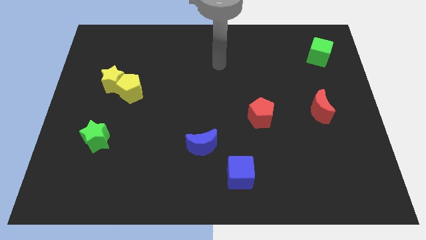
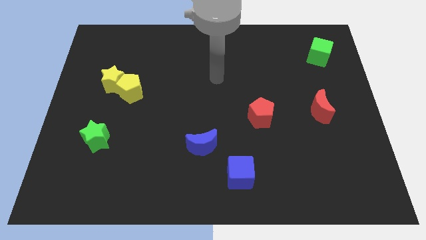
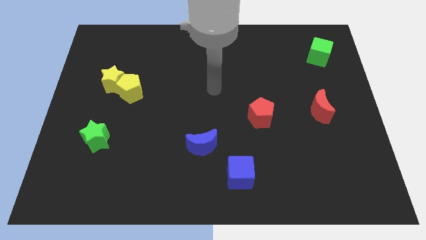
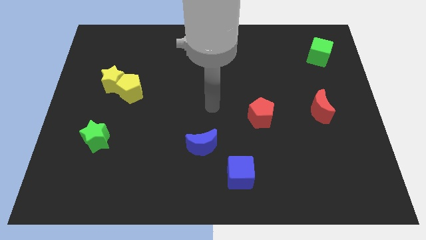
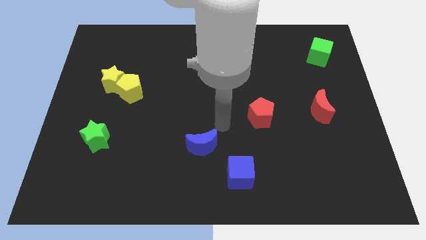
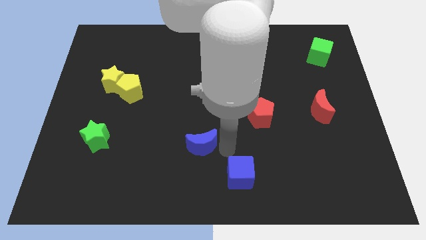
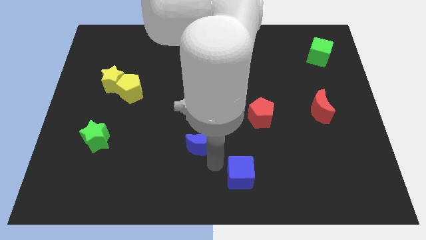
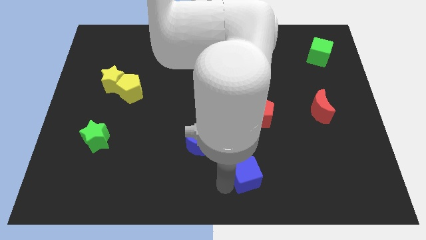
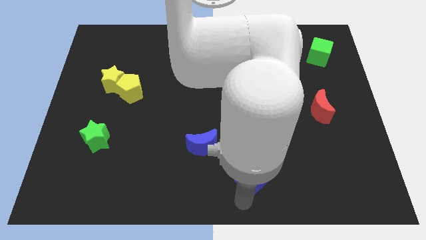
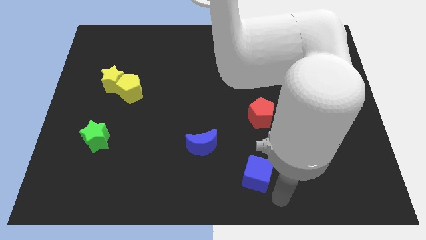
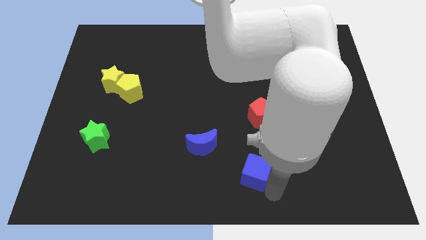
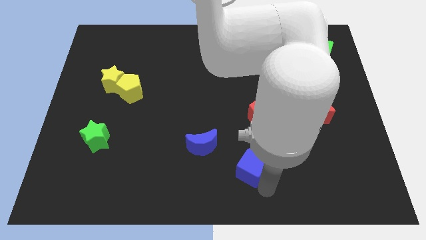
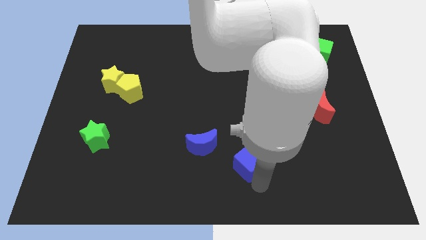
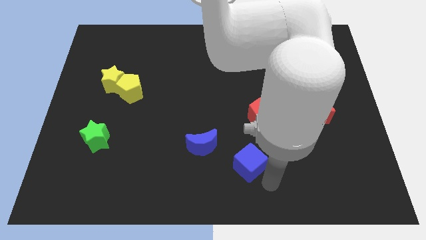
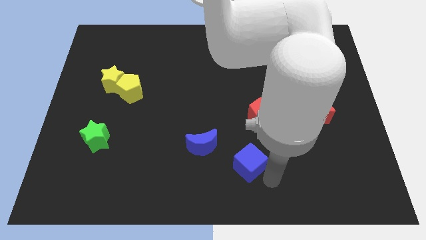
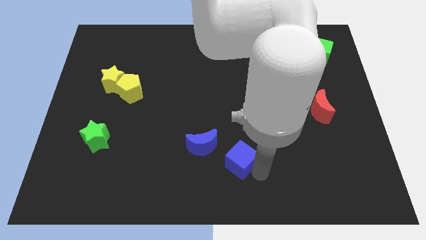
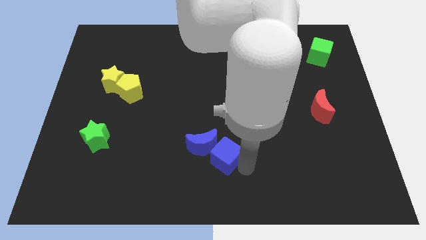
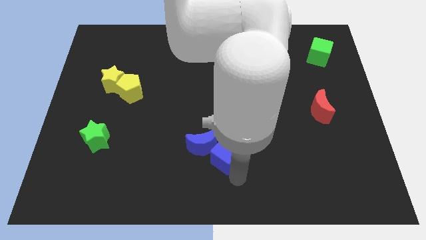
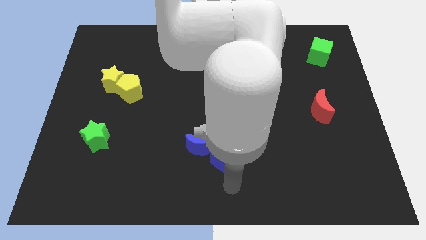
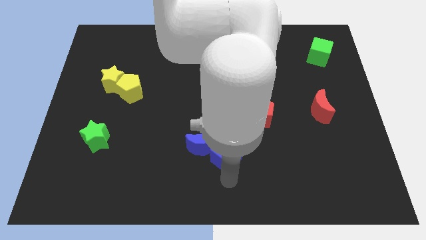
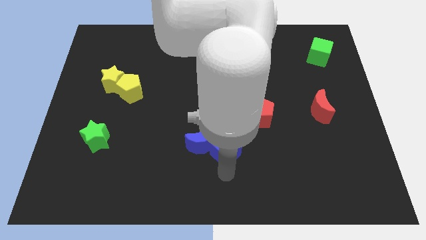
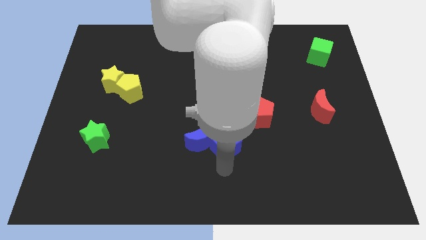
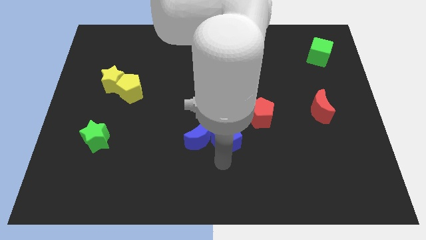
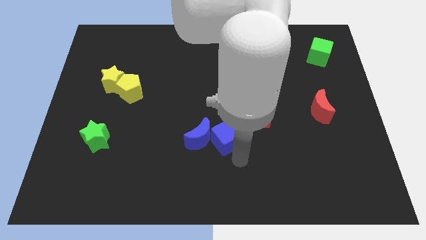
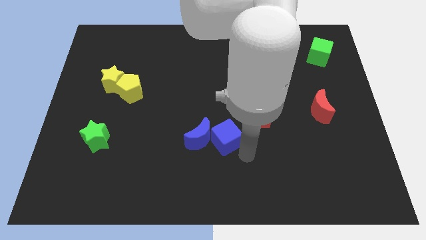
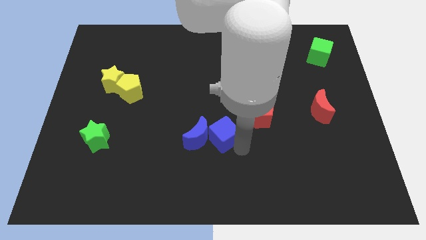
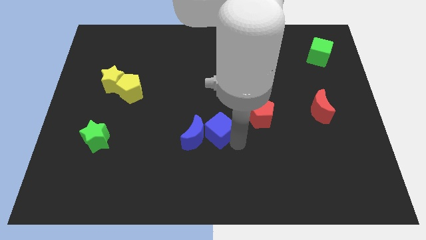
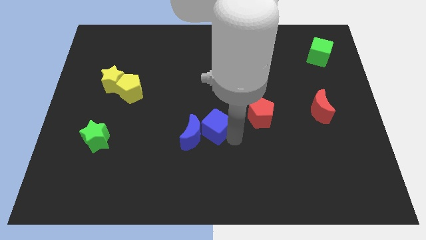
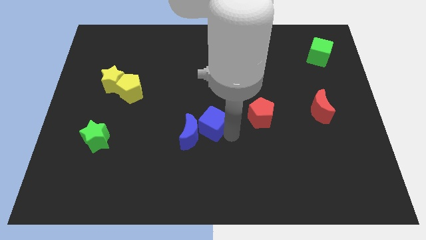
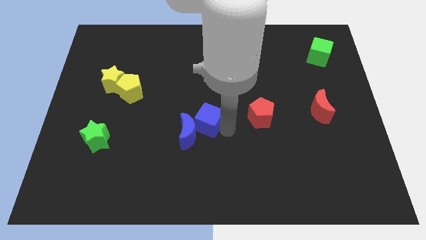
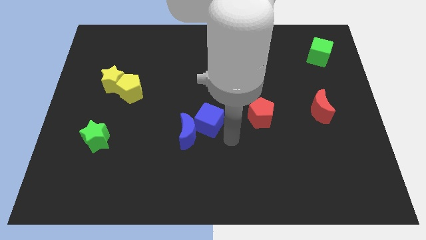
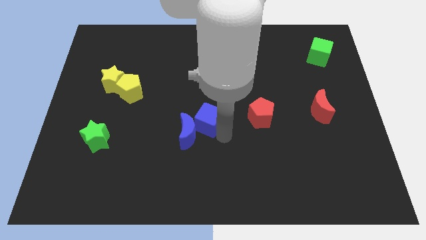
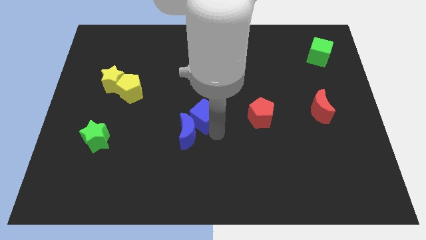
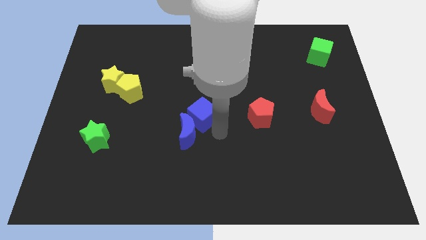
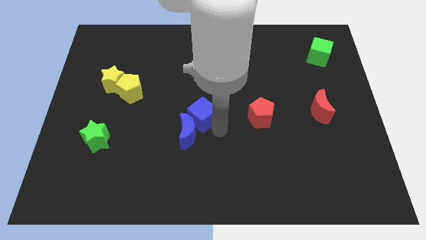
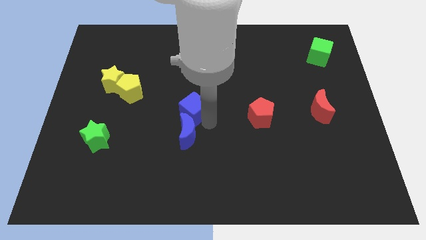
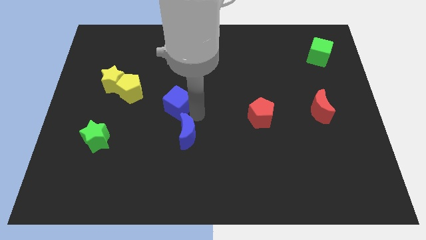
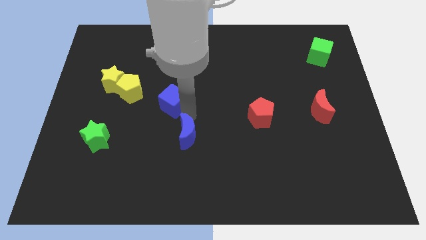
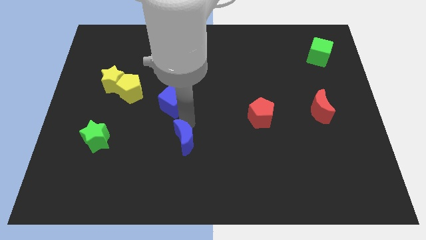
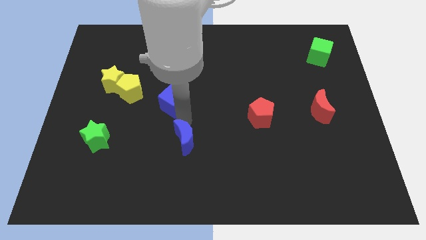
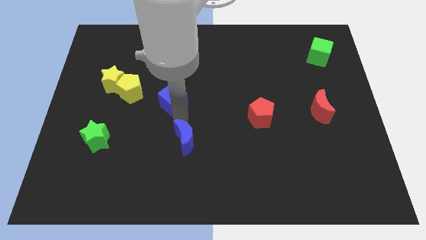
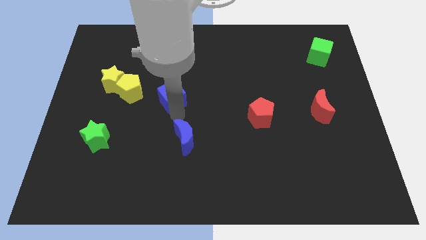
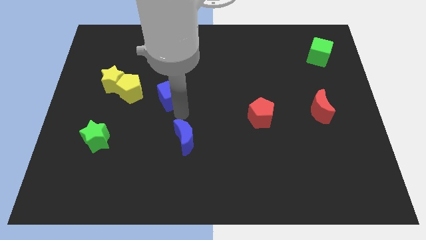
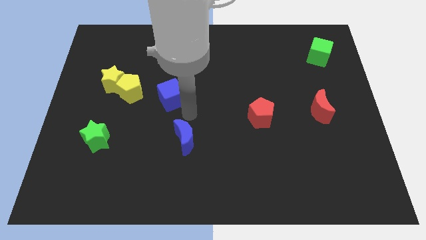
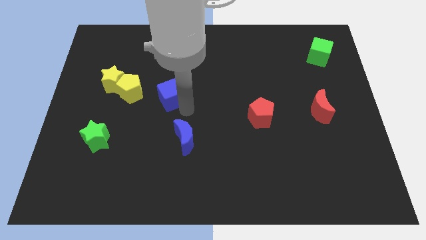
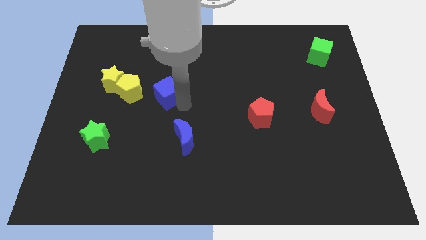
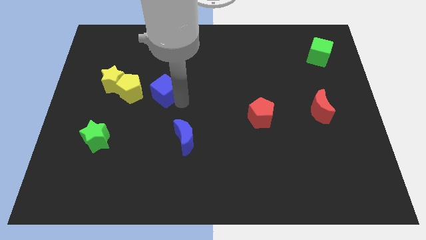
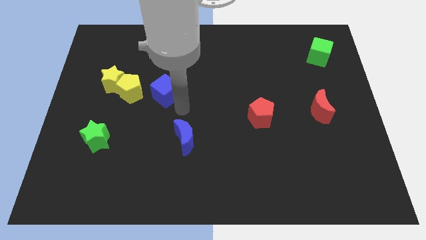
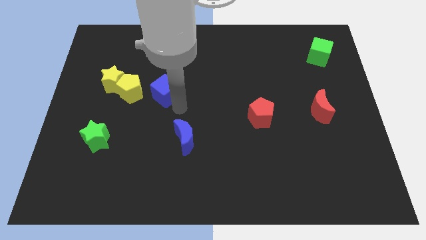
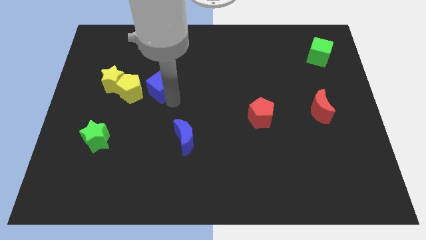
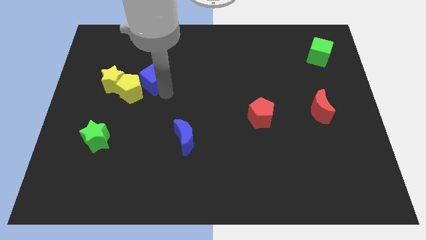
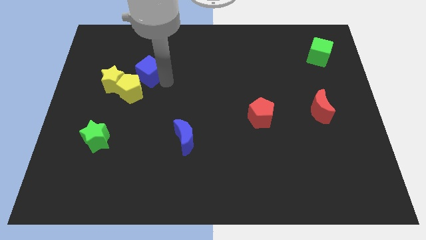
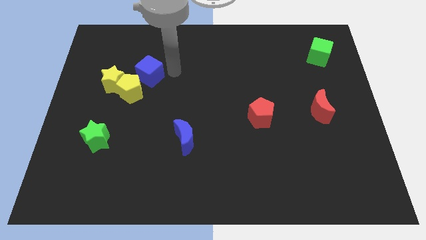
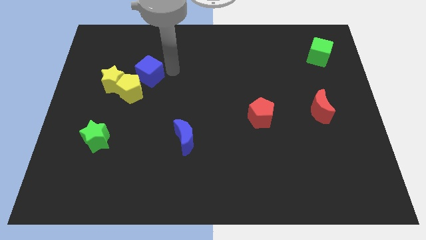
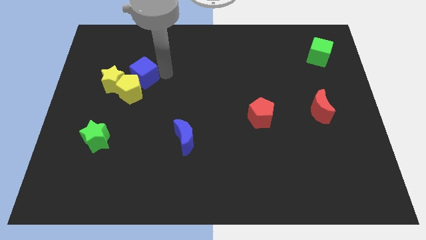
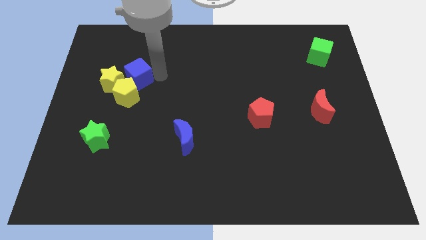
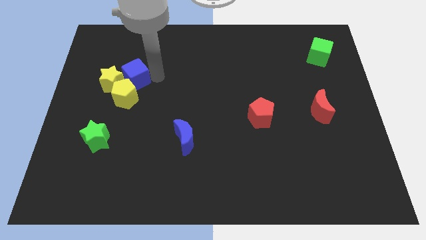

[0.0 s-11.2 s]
slide the blue cube next to the yellow star

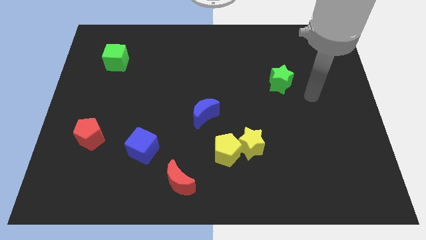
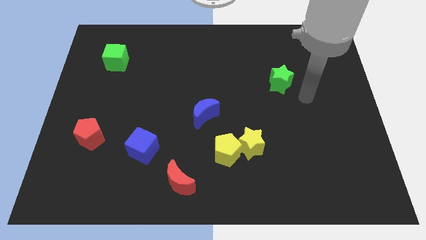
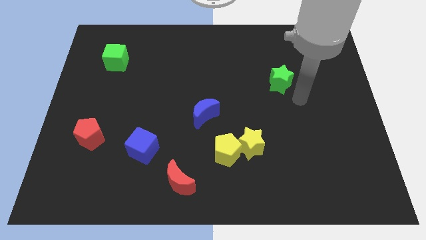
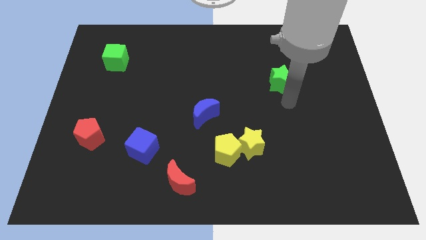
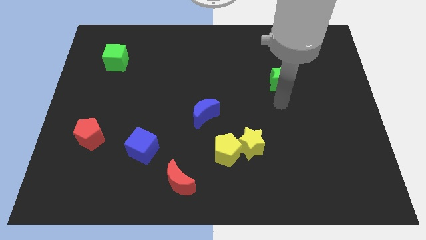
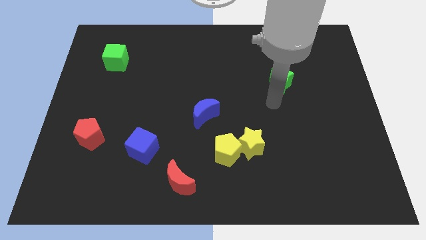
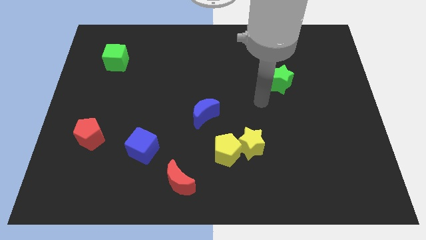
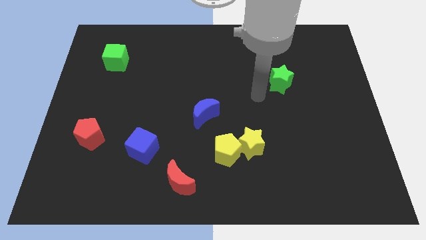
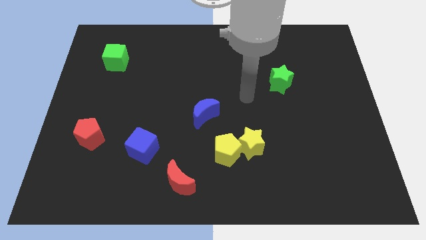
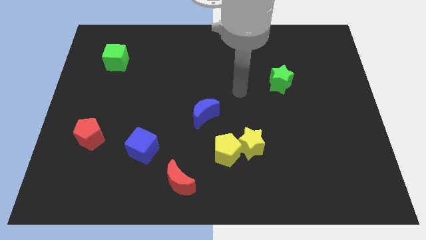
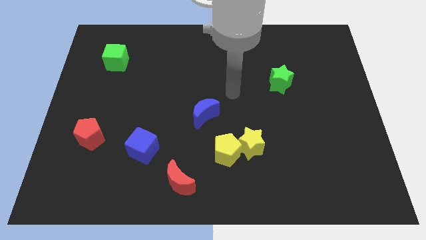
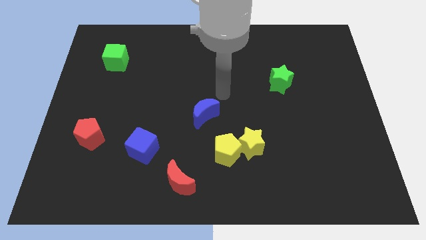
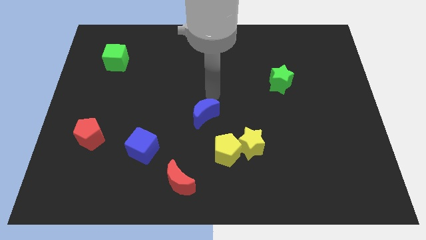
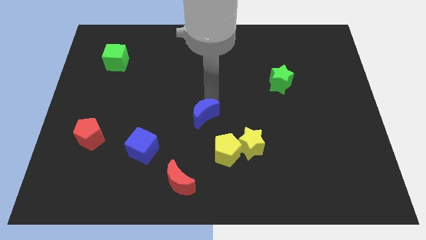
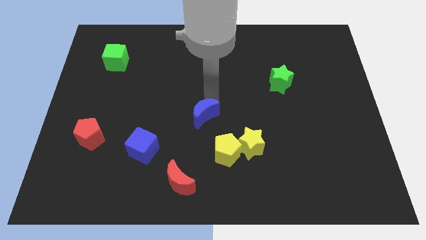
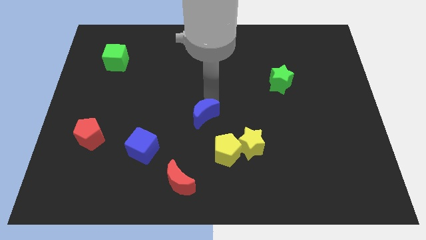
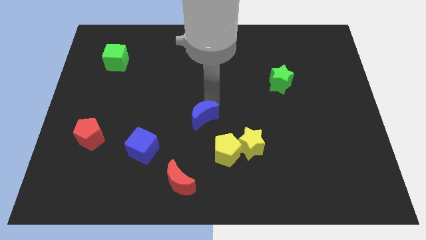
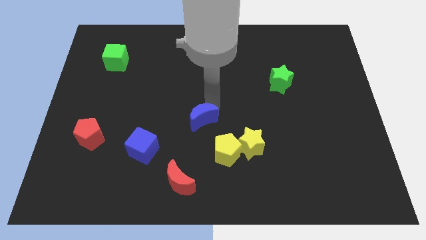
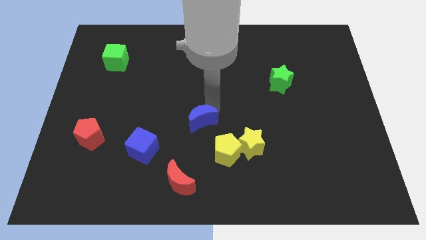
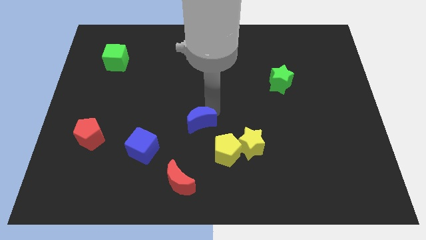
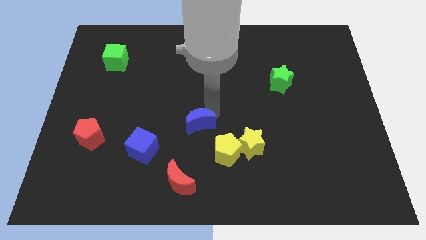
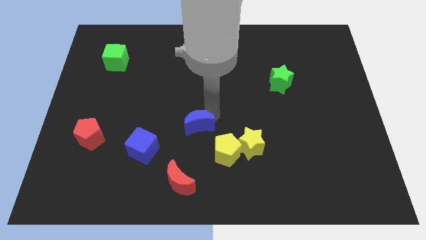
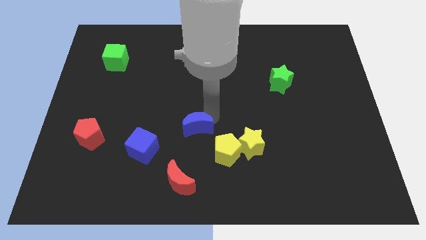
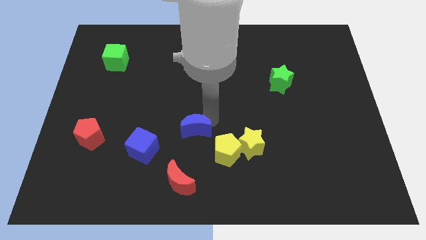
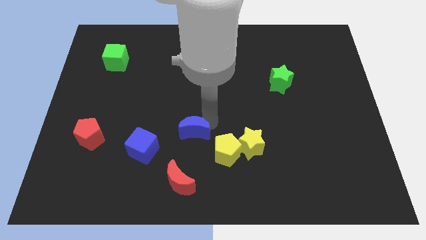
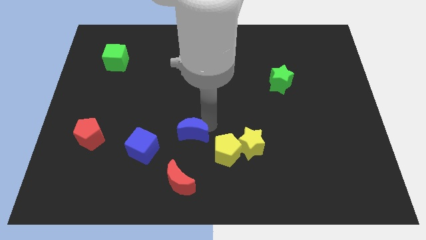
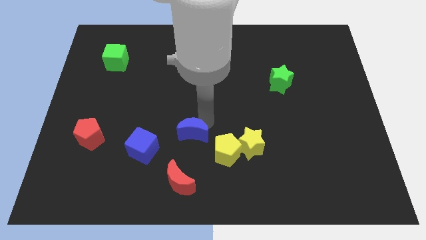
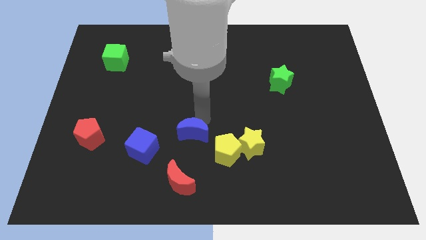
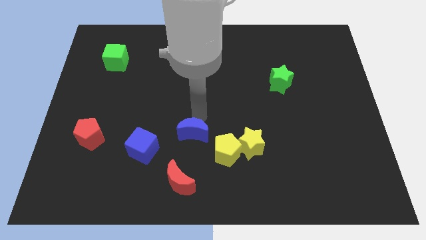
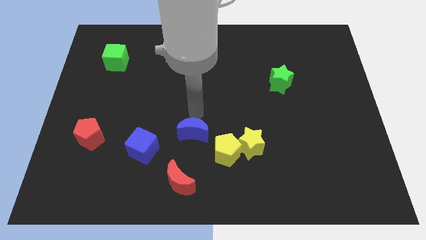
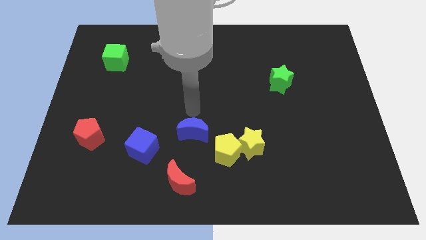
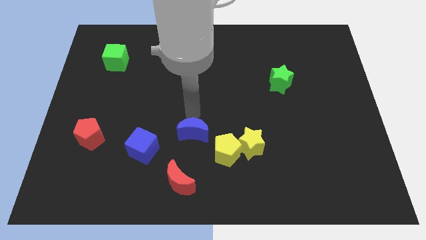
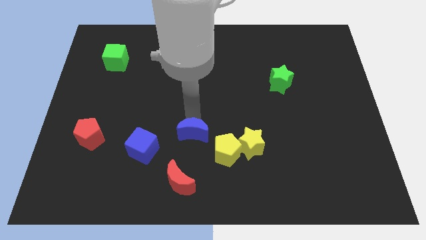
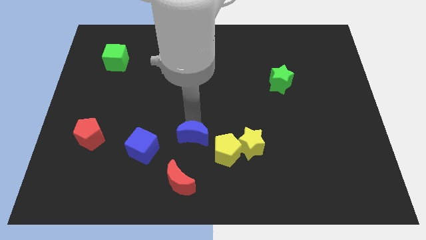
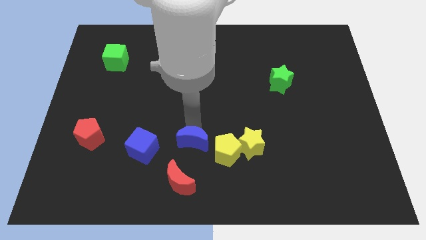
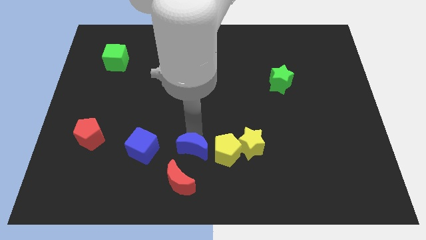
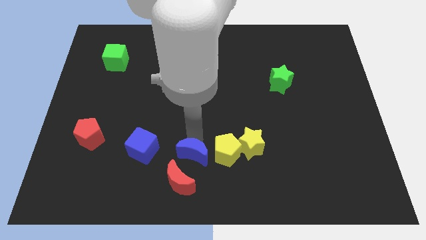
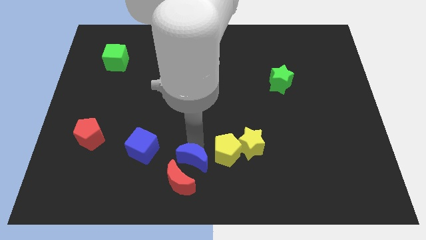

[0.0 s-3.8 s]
slide the blue moon next to the red moon
